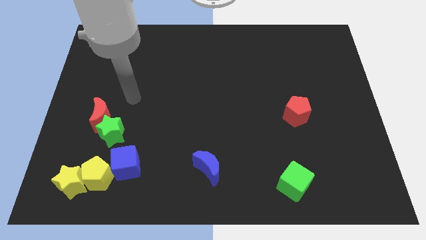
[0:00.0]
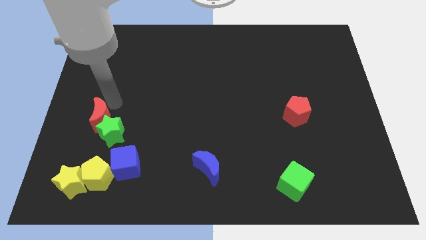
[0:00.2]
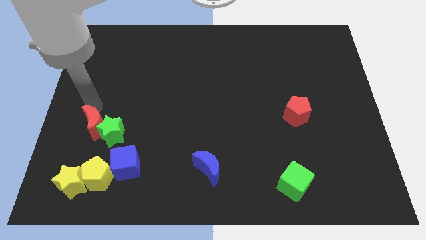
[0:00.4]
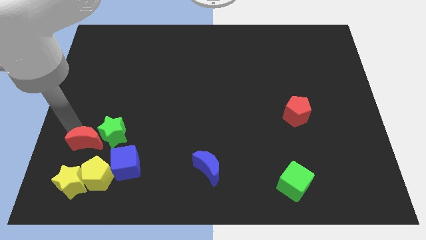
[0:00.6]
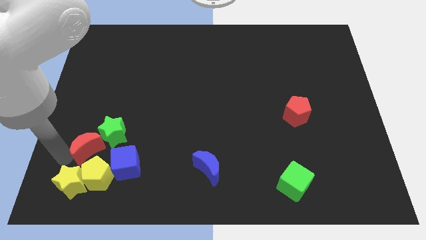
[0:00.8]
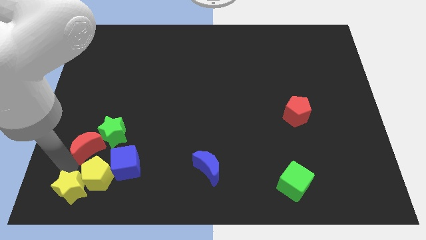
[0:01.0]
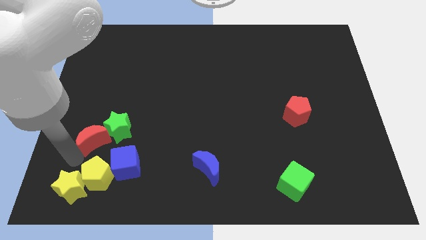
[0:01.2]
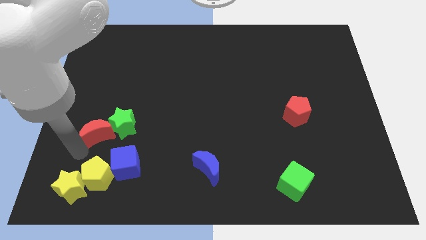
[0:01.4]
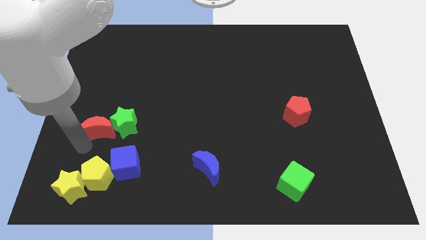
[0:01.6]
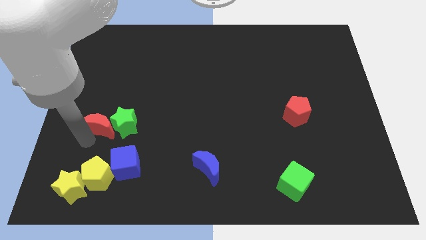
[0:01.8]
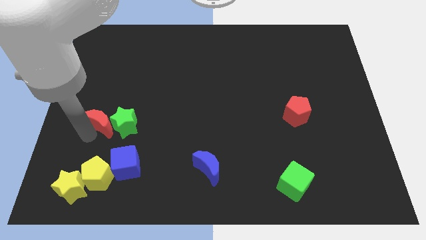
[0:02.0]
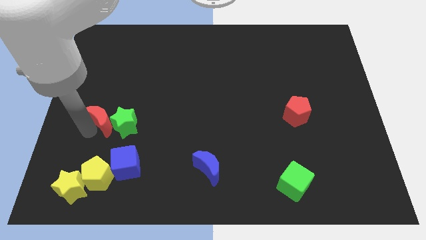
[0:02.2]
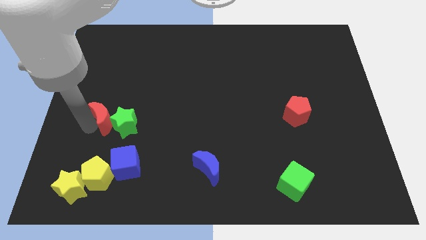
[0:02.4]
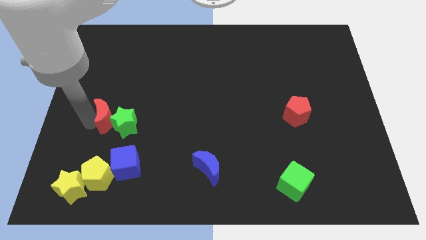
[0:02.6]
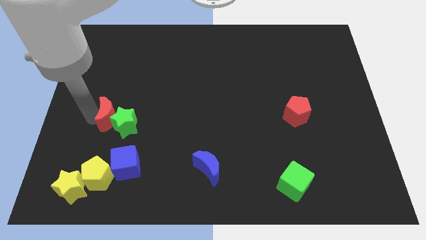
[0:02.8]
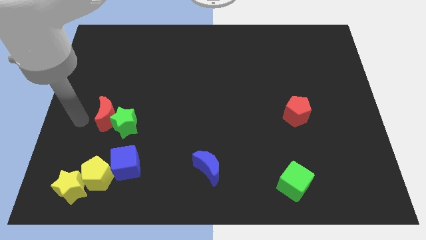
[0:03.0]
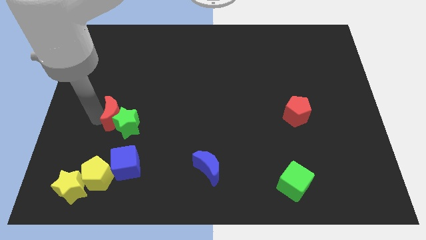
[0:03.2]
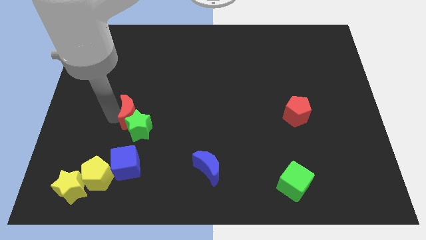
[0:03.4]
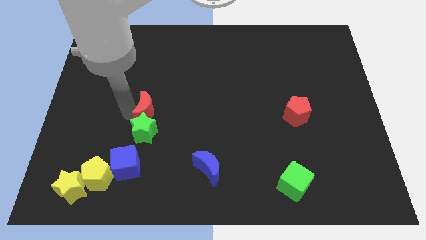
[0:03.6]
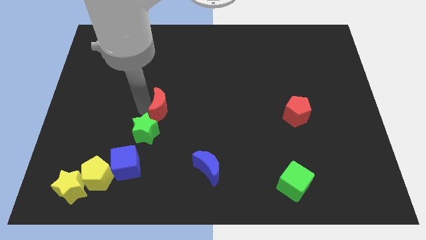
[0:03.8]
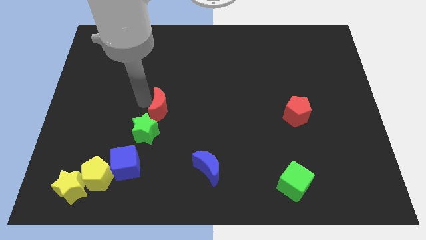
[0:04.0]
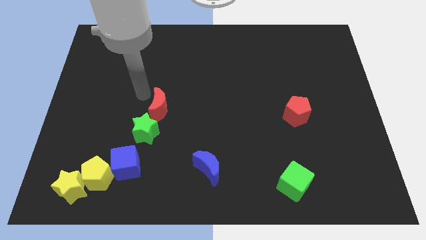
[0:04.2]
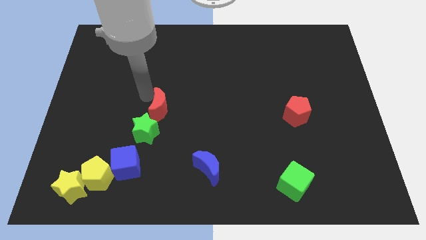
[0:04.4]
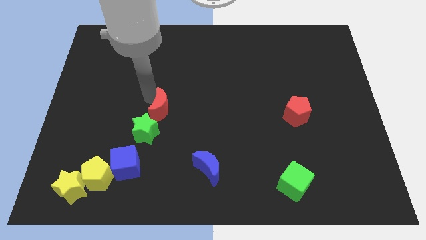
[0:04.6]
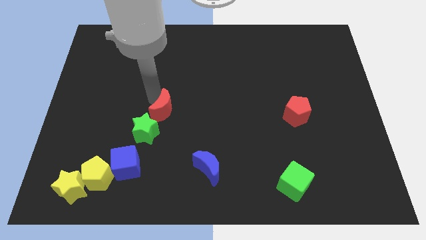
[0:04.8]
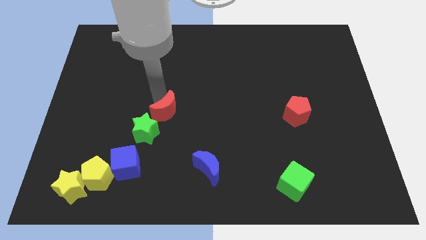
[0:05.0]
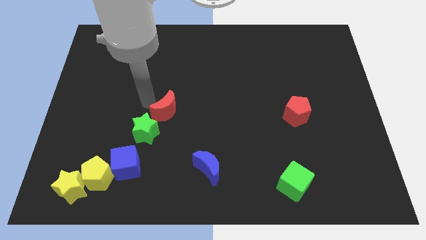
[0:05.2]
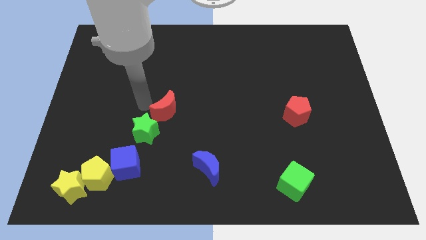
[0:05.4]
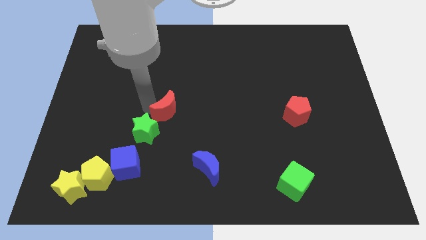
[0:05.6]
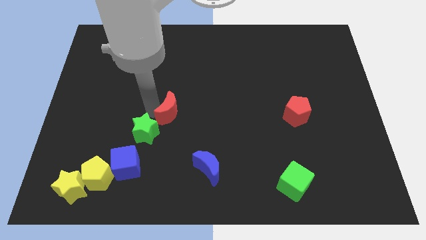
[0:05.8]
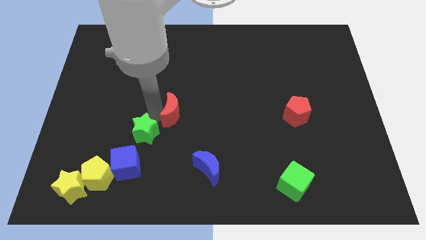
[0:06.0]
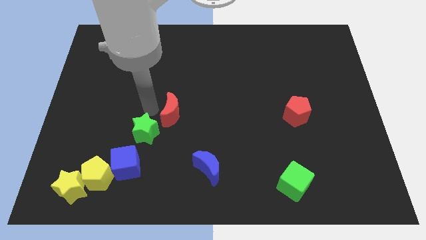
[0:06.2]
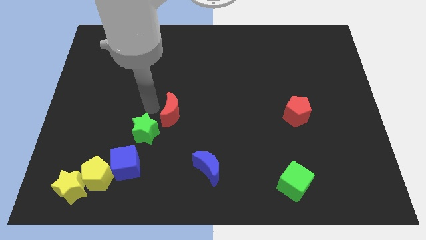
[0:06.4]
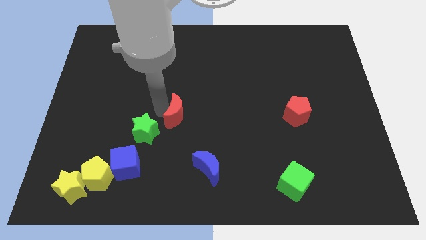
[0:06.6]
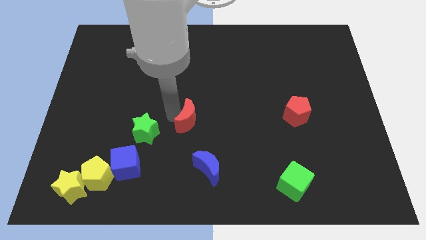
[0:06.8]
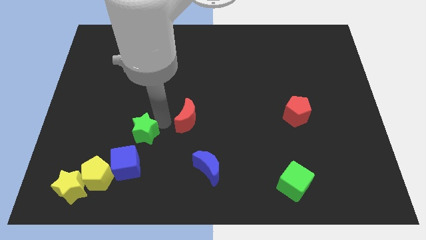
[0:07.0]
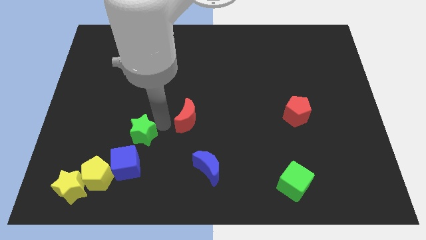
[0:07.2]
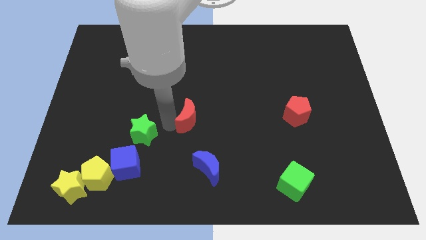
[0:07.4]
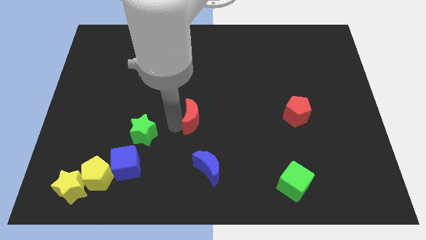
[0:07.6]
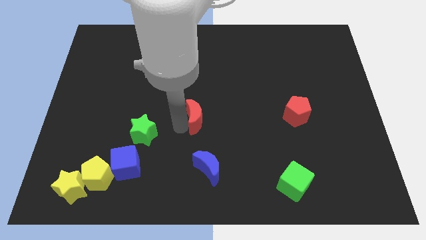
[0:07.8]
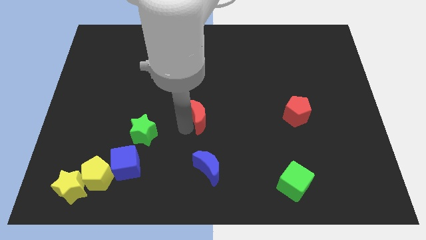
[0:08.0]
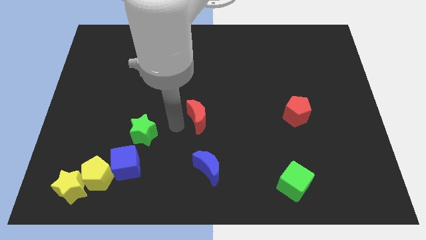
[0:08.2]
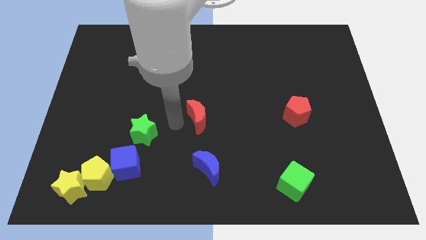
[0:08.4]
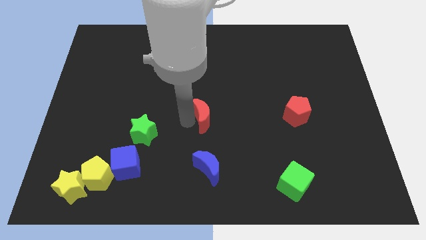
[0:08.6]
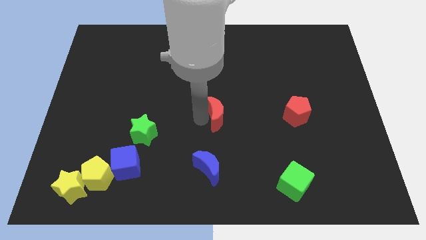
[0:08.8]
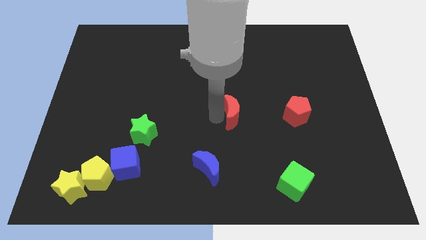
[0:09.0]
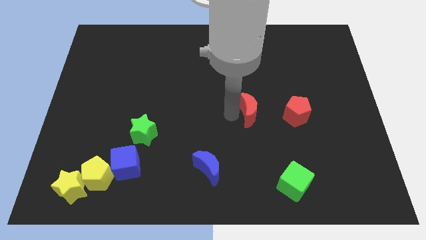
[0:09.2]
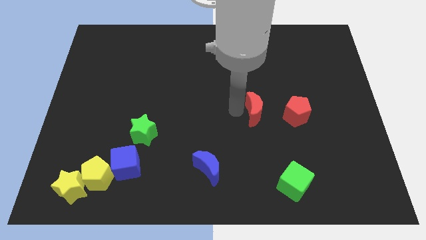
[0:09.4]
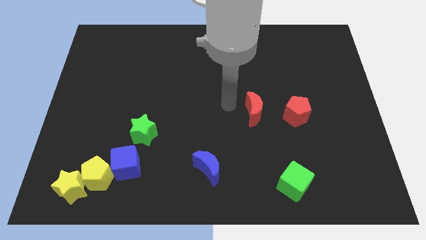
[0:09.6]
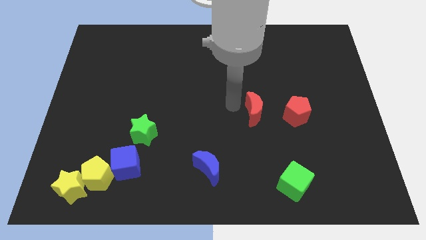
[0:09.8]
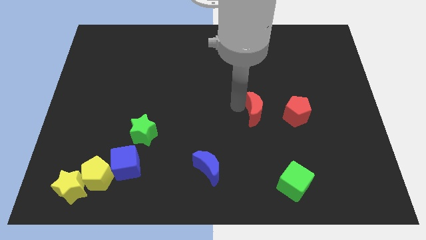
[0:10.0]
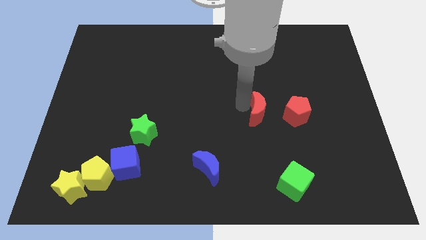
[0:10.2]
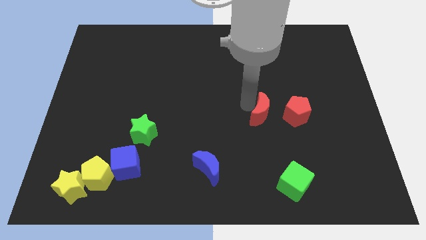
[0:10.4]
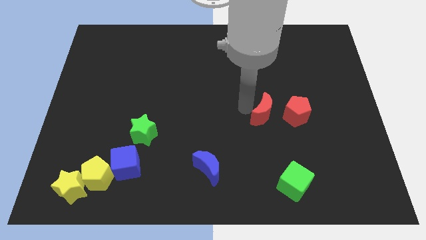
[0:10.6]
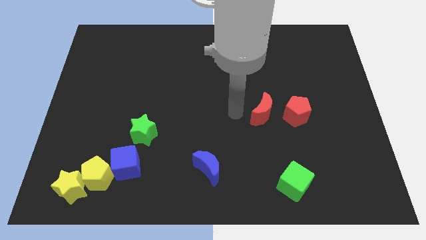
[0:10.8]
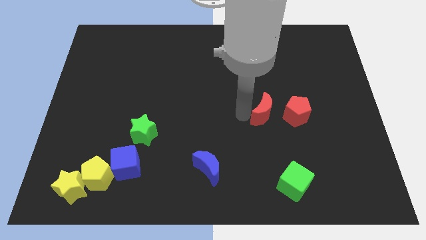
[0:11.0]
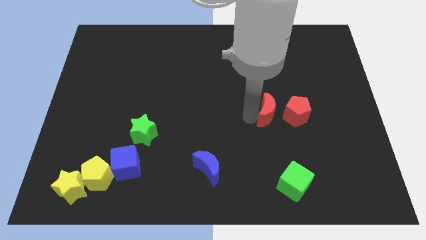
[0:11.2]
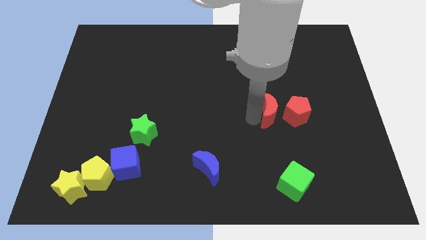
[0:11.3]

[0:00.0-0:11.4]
move the red moon towards the red pentagon

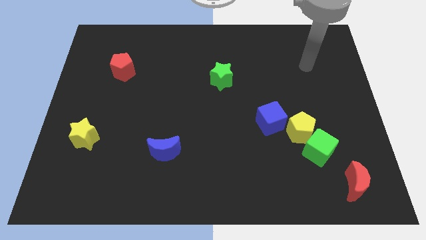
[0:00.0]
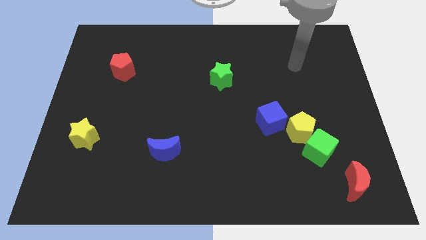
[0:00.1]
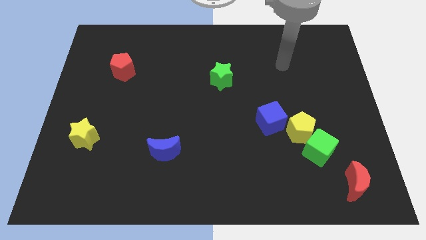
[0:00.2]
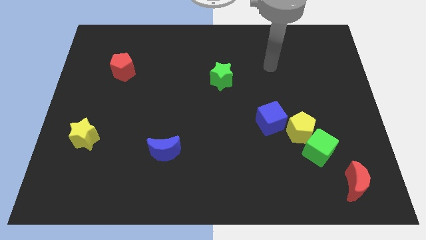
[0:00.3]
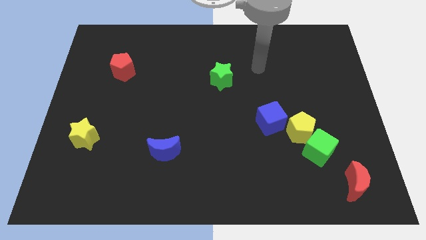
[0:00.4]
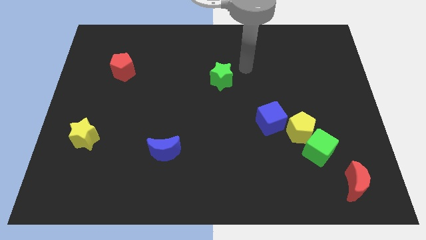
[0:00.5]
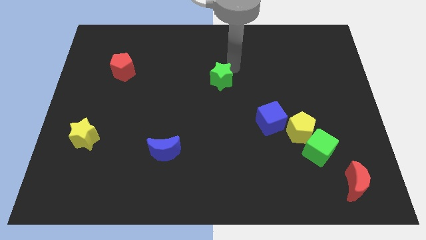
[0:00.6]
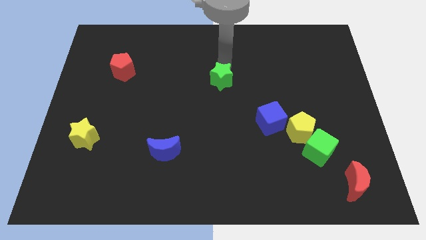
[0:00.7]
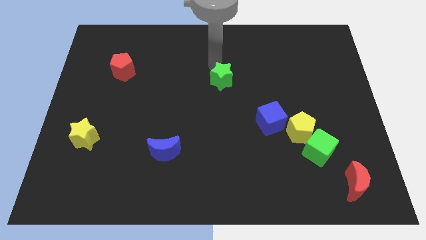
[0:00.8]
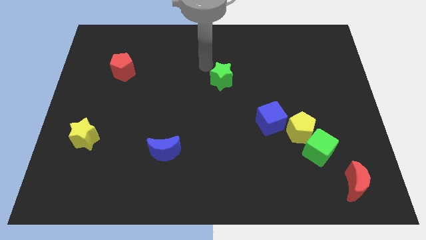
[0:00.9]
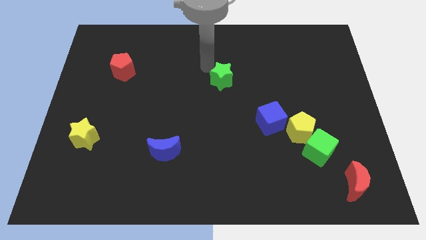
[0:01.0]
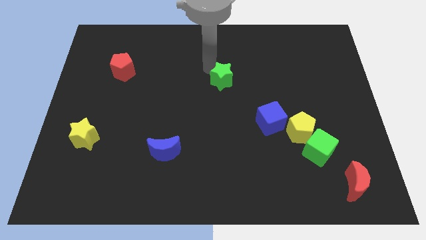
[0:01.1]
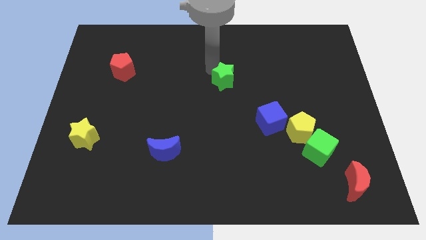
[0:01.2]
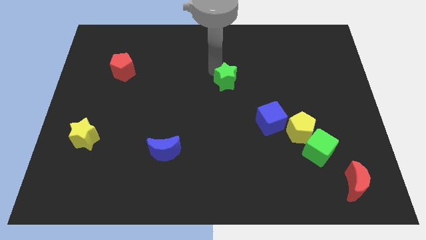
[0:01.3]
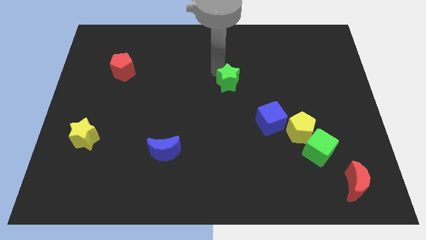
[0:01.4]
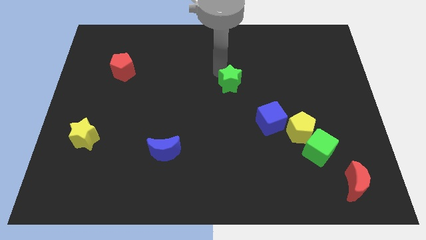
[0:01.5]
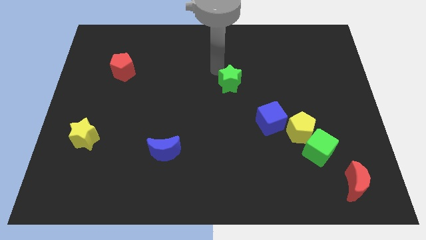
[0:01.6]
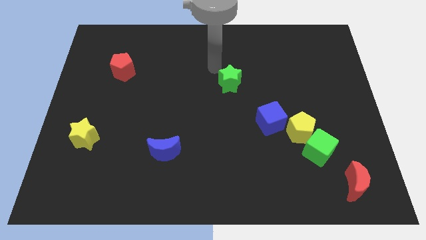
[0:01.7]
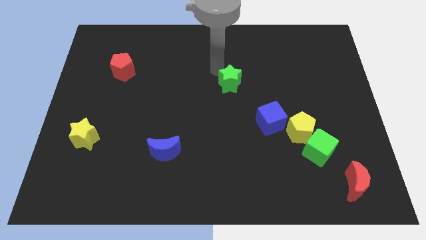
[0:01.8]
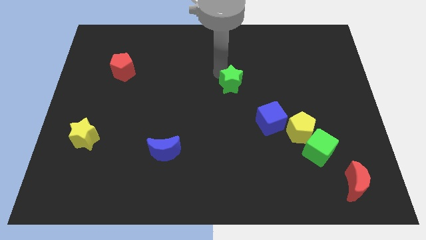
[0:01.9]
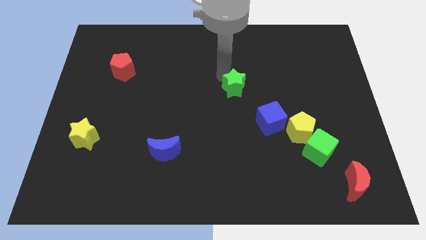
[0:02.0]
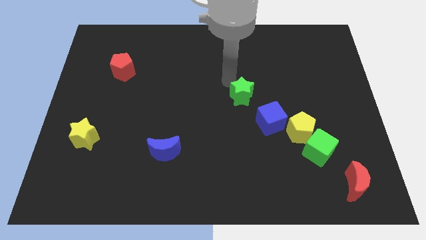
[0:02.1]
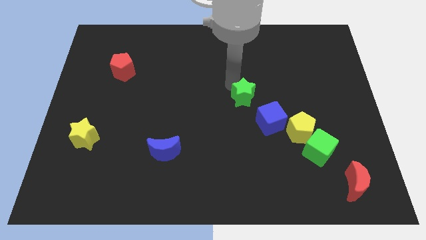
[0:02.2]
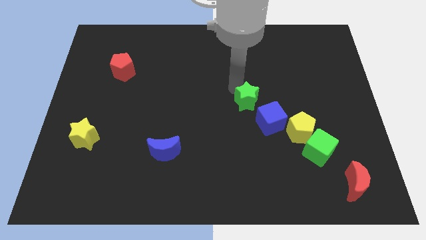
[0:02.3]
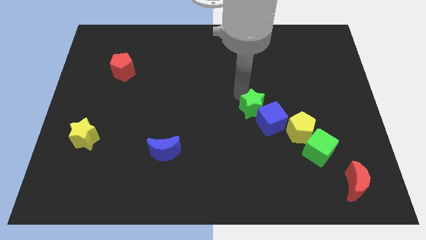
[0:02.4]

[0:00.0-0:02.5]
slide the green star close to the blue cube
